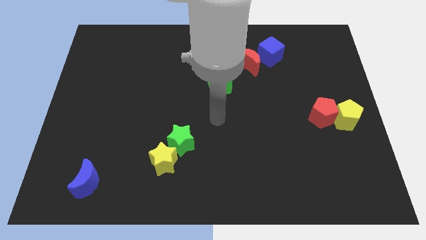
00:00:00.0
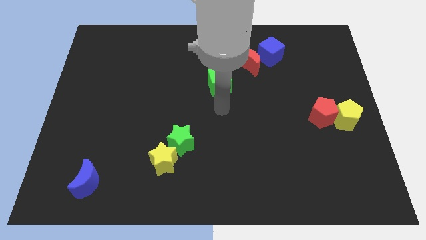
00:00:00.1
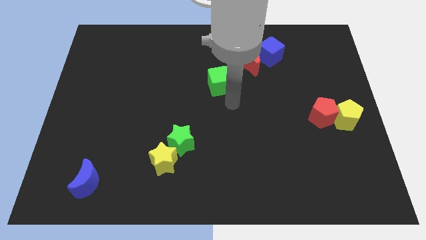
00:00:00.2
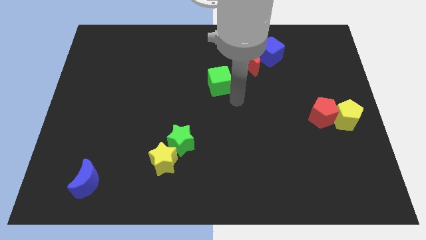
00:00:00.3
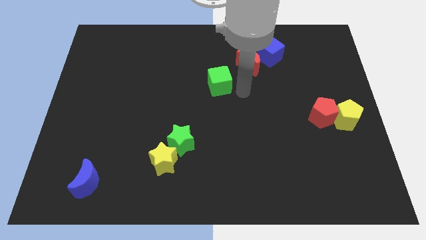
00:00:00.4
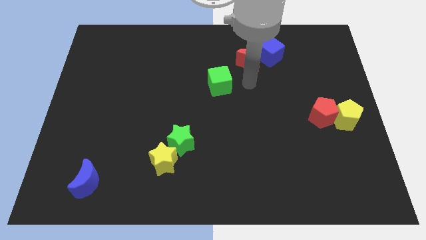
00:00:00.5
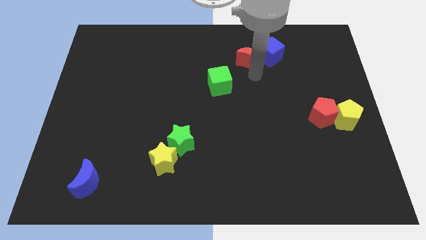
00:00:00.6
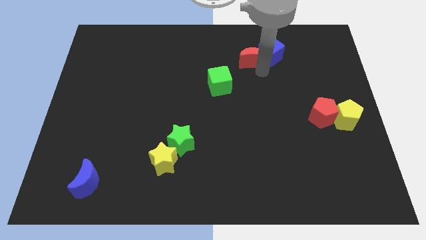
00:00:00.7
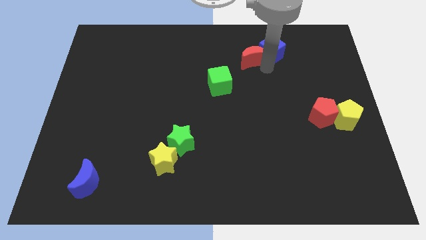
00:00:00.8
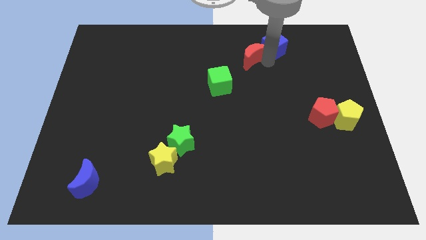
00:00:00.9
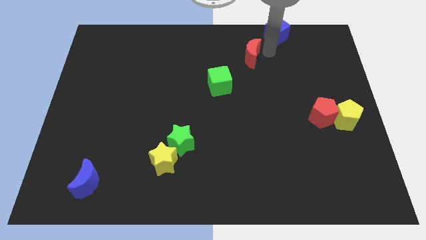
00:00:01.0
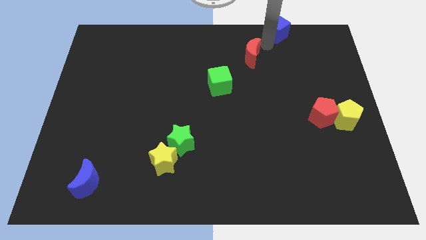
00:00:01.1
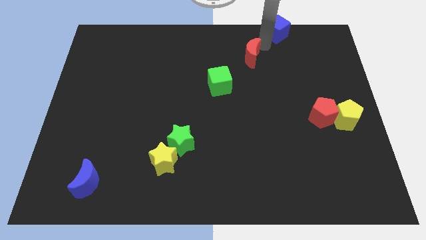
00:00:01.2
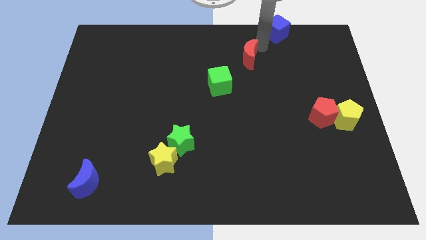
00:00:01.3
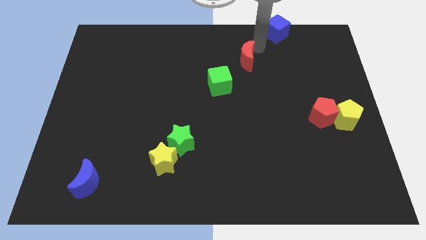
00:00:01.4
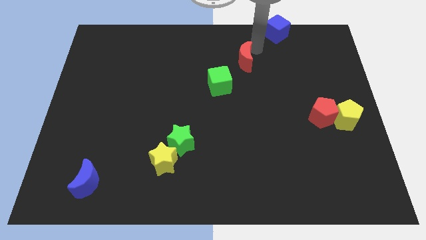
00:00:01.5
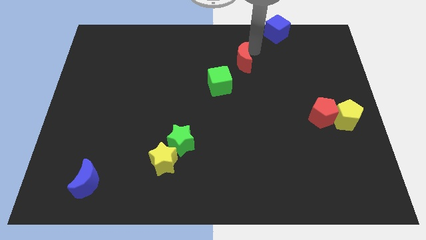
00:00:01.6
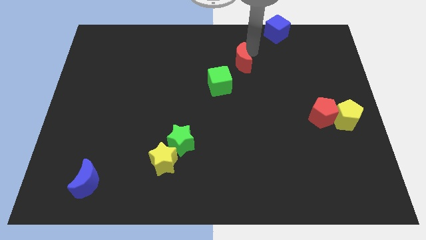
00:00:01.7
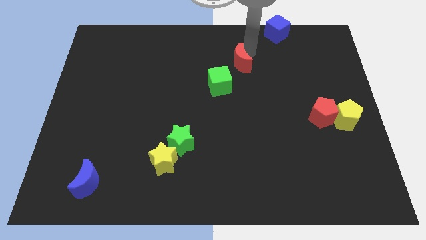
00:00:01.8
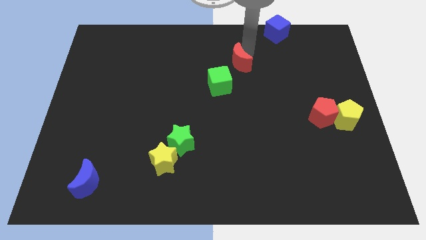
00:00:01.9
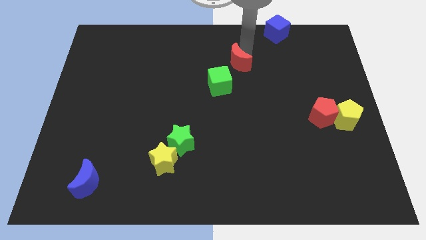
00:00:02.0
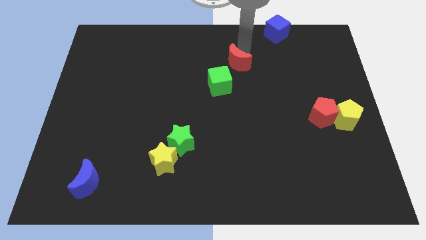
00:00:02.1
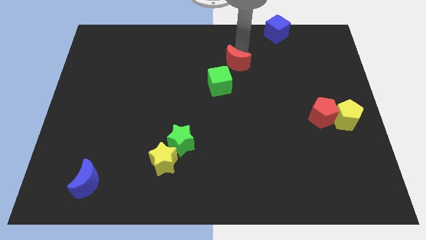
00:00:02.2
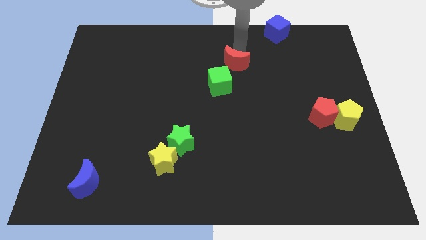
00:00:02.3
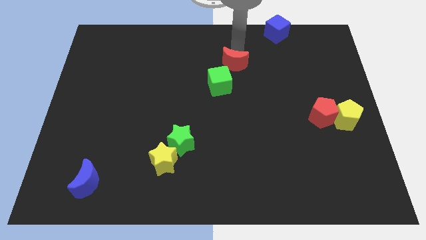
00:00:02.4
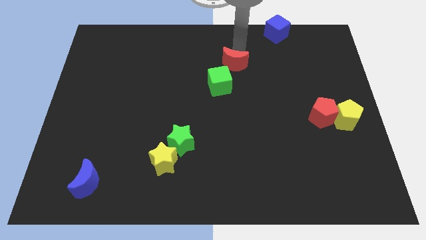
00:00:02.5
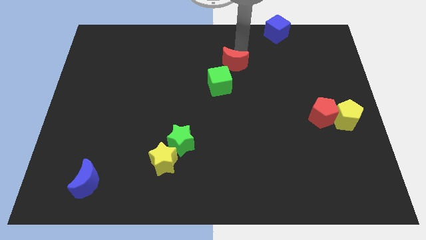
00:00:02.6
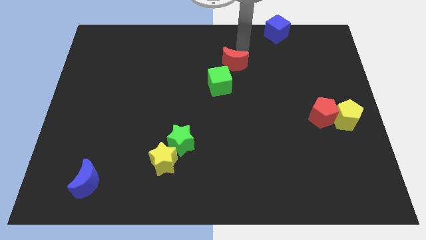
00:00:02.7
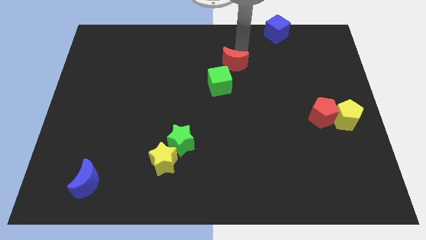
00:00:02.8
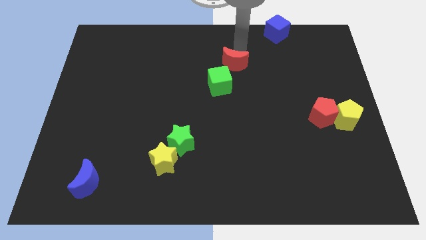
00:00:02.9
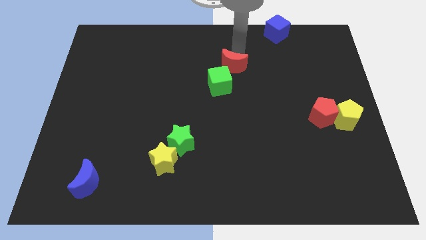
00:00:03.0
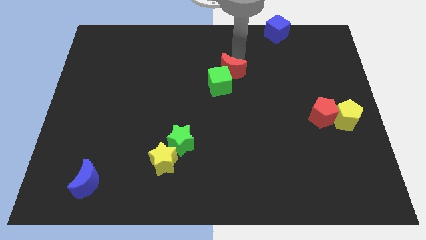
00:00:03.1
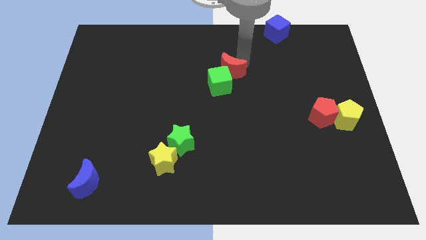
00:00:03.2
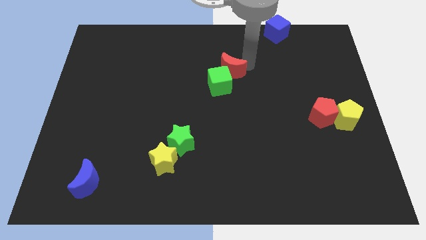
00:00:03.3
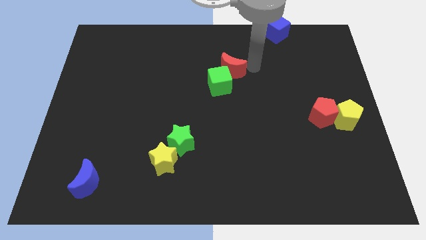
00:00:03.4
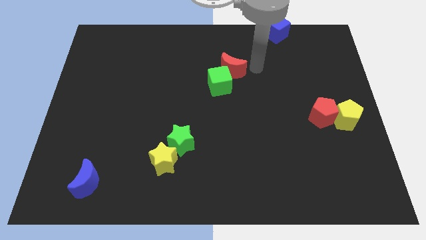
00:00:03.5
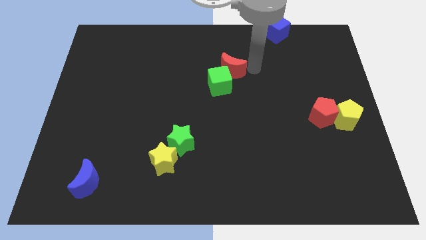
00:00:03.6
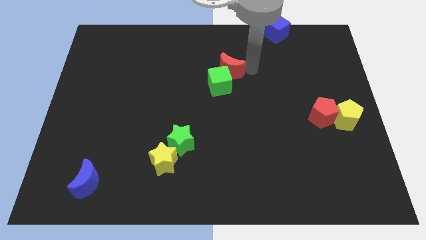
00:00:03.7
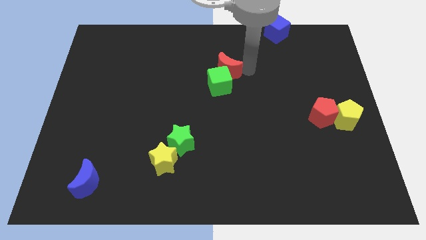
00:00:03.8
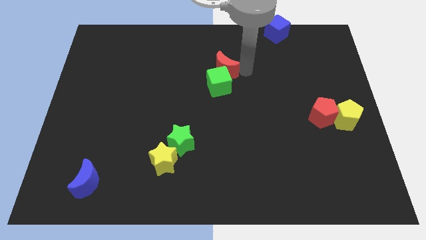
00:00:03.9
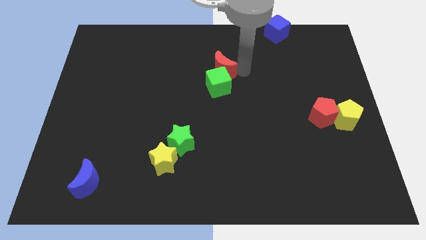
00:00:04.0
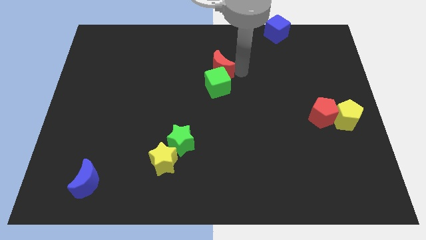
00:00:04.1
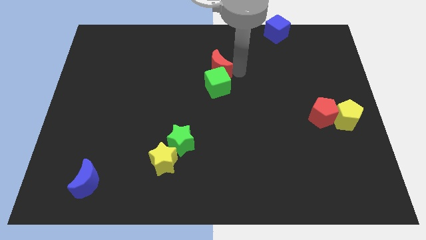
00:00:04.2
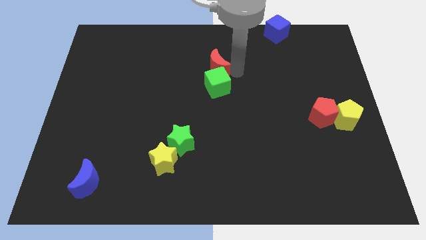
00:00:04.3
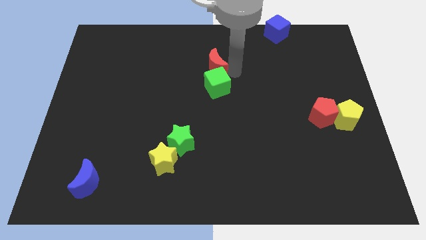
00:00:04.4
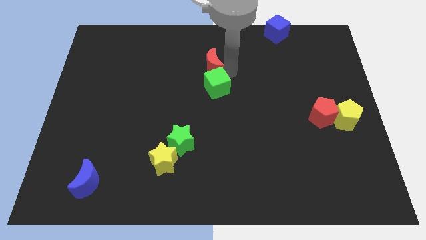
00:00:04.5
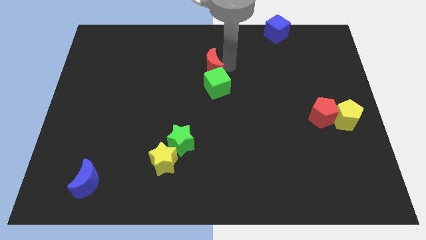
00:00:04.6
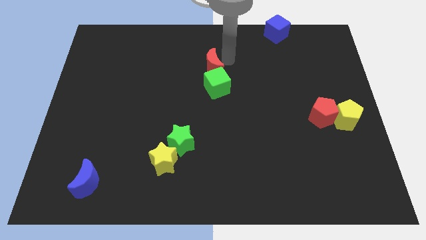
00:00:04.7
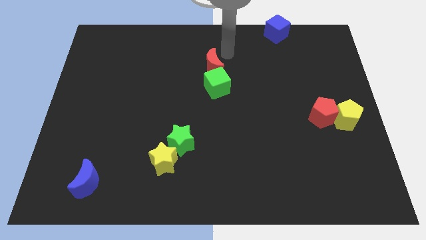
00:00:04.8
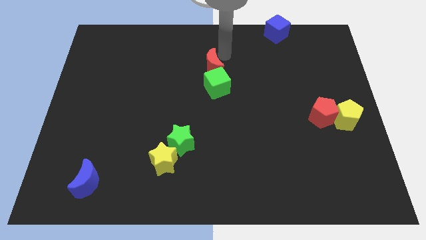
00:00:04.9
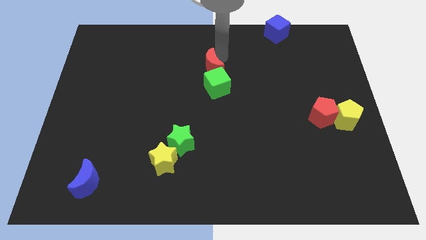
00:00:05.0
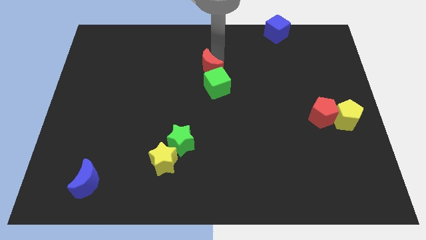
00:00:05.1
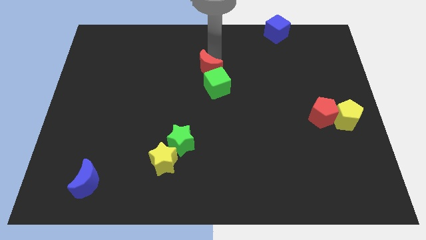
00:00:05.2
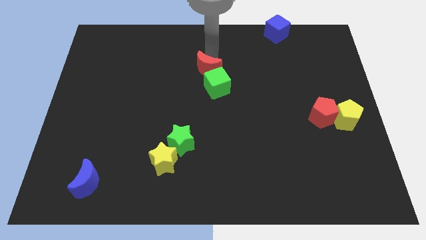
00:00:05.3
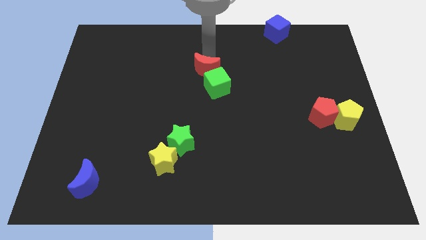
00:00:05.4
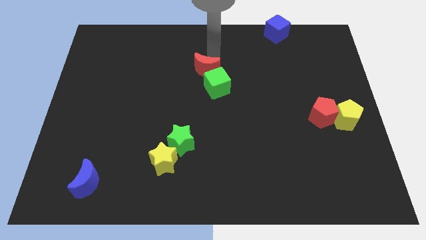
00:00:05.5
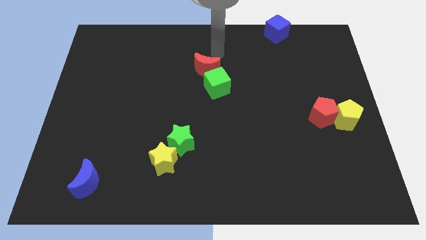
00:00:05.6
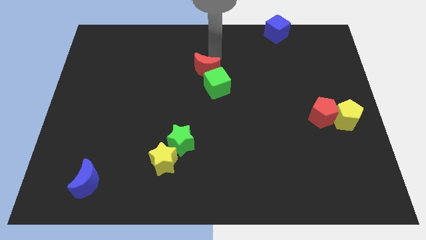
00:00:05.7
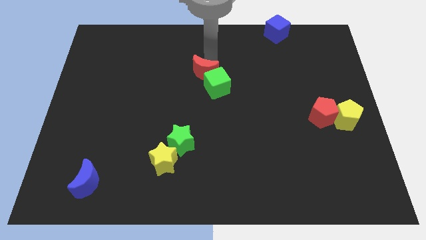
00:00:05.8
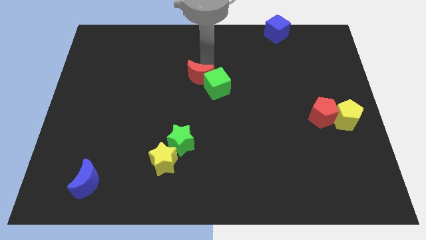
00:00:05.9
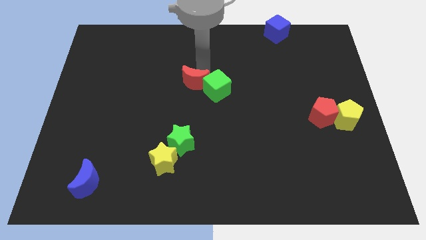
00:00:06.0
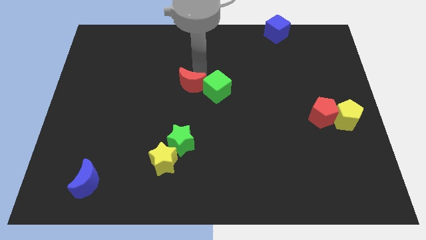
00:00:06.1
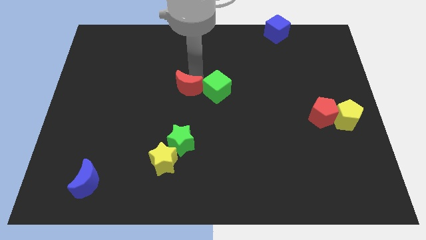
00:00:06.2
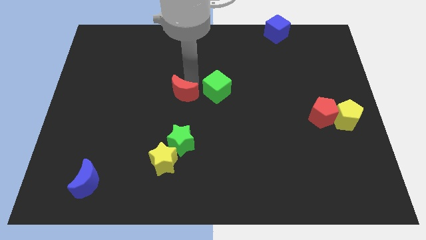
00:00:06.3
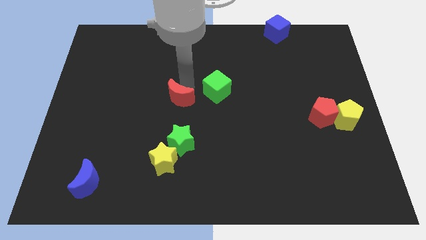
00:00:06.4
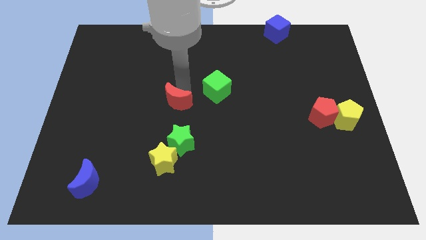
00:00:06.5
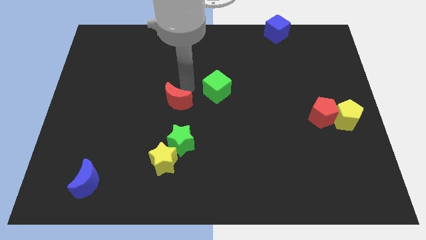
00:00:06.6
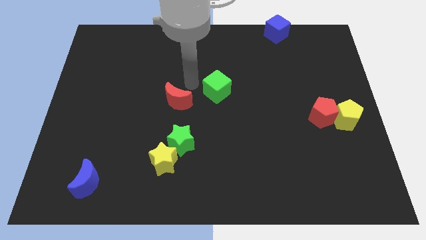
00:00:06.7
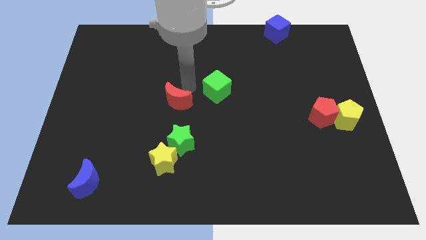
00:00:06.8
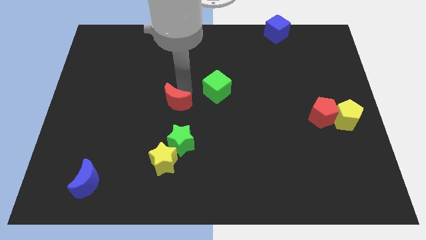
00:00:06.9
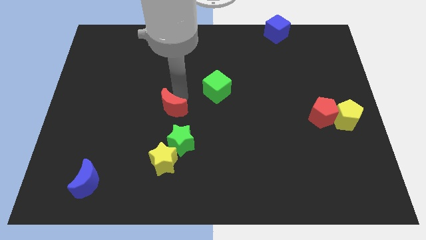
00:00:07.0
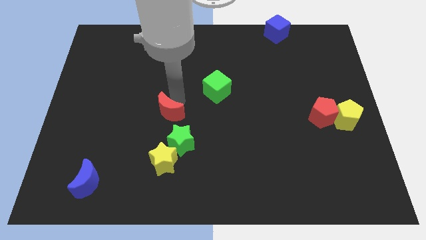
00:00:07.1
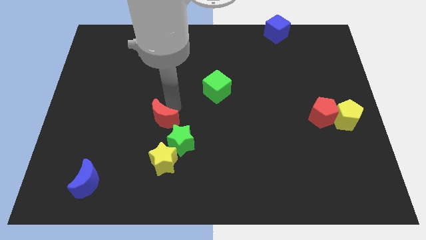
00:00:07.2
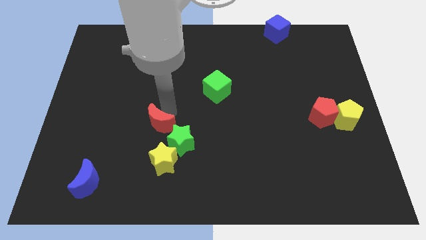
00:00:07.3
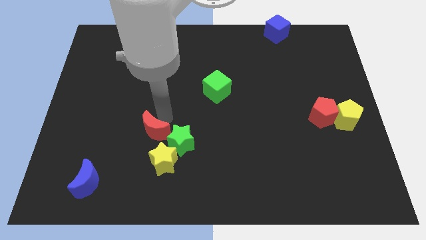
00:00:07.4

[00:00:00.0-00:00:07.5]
slide the red moon to the top left of the yellow star
